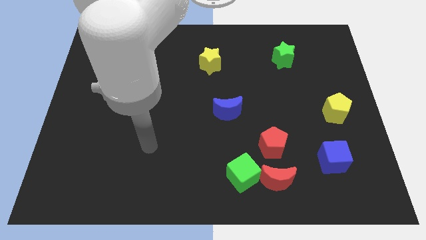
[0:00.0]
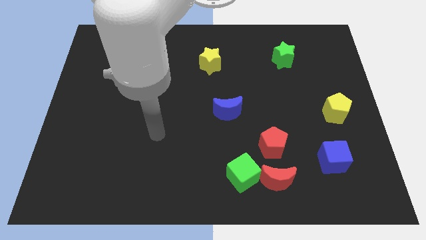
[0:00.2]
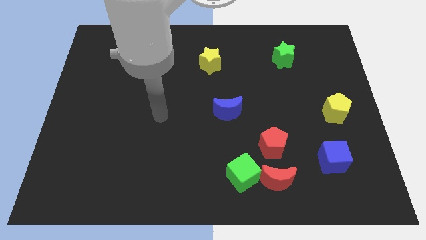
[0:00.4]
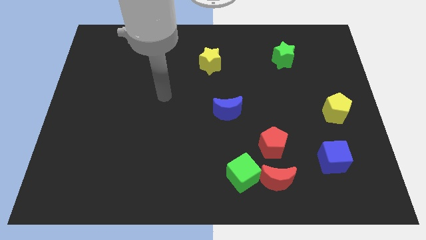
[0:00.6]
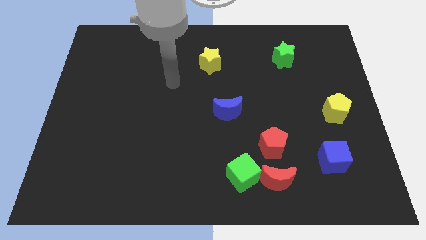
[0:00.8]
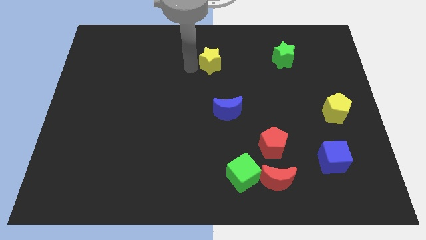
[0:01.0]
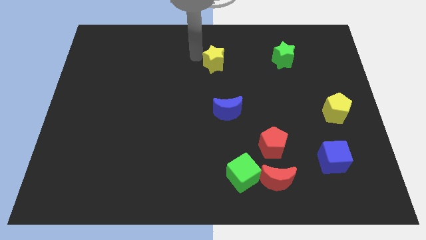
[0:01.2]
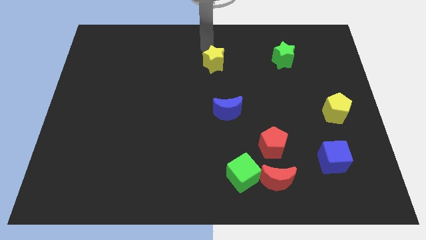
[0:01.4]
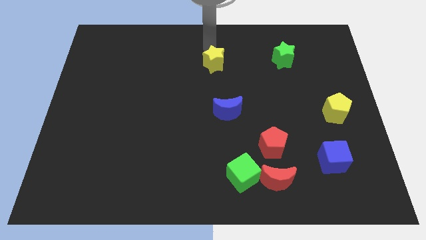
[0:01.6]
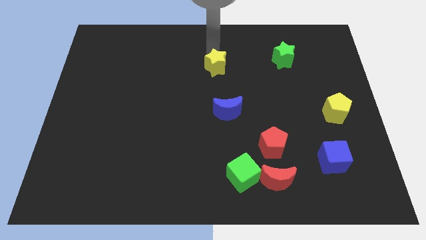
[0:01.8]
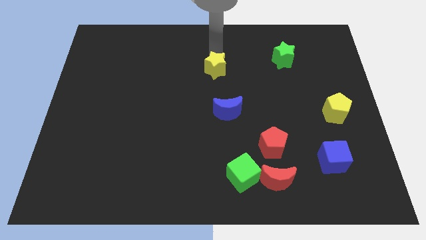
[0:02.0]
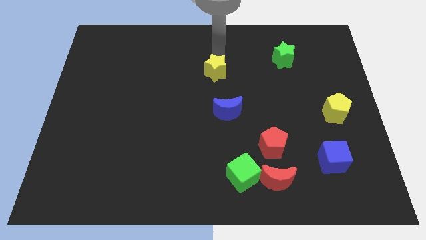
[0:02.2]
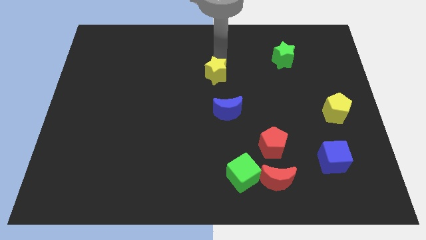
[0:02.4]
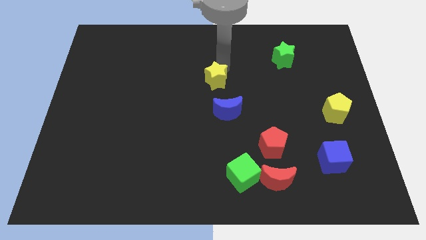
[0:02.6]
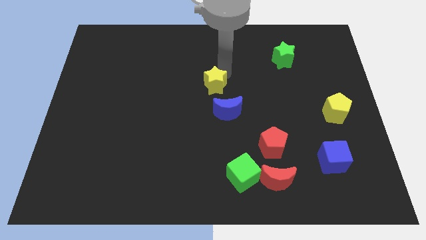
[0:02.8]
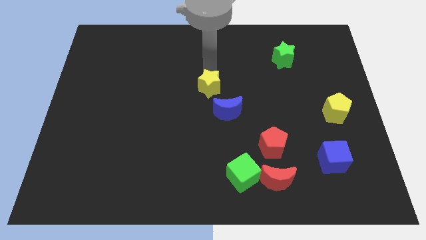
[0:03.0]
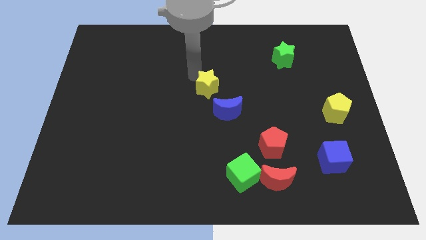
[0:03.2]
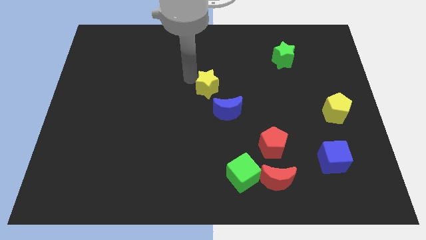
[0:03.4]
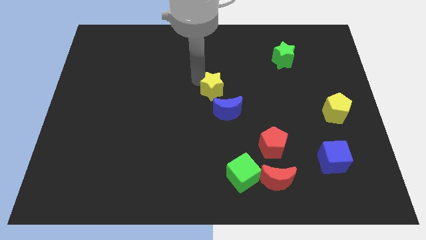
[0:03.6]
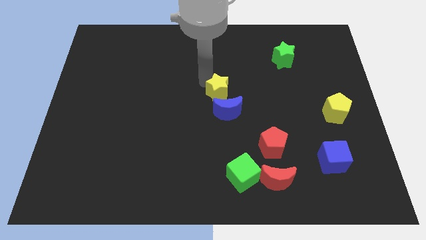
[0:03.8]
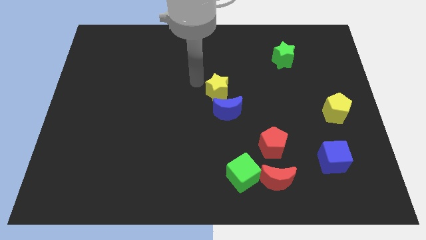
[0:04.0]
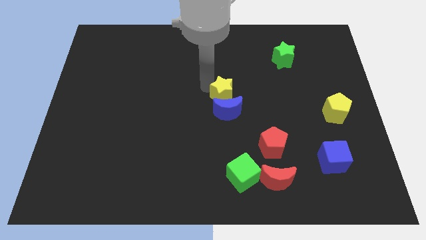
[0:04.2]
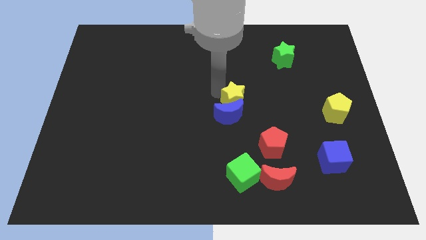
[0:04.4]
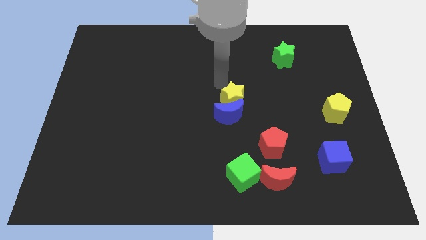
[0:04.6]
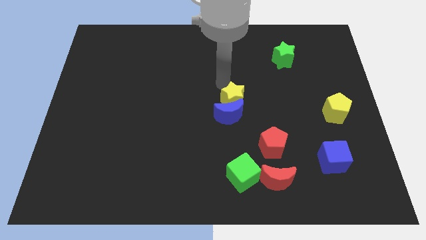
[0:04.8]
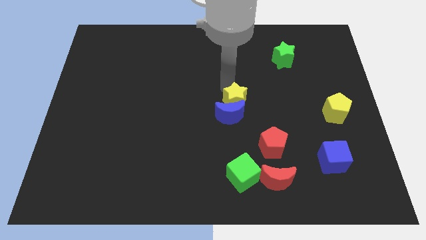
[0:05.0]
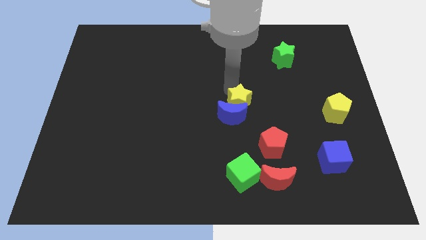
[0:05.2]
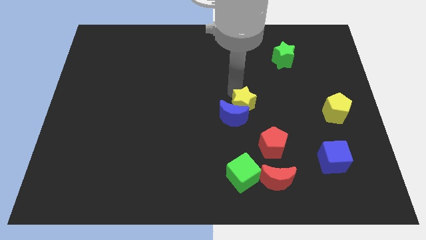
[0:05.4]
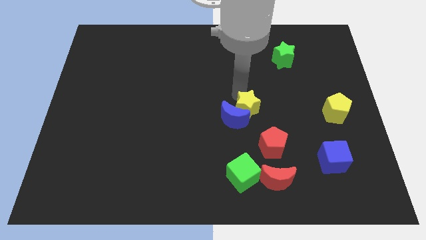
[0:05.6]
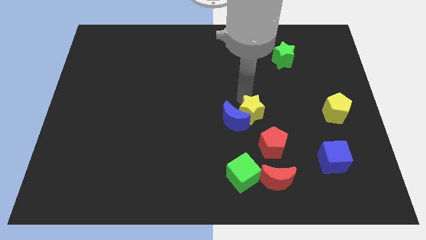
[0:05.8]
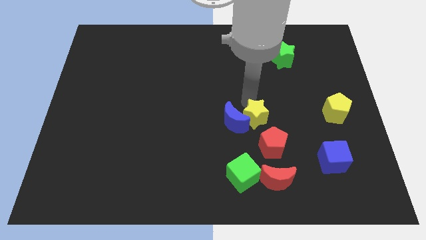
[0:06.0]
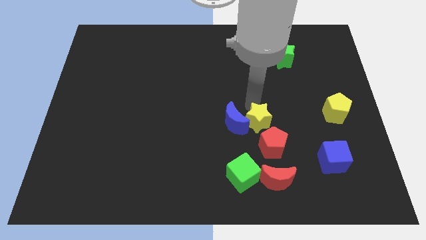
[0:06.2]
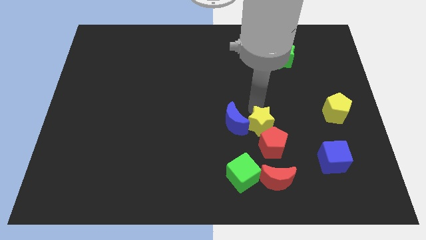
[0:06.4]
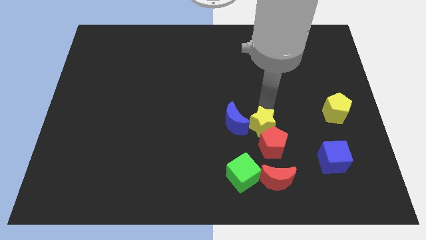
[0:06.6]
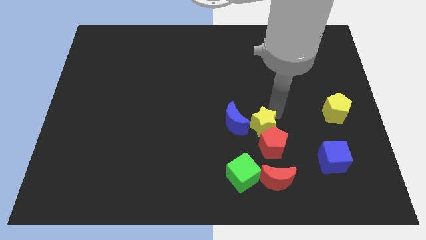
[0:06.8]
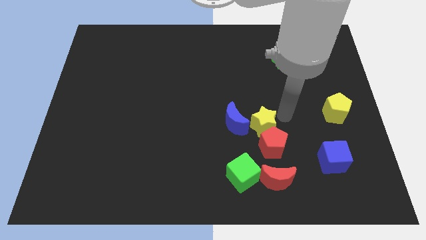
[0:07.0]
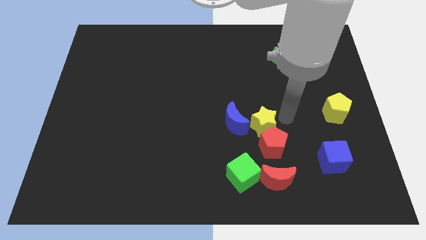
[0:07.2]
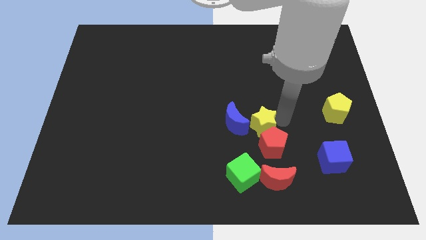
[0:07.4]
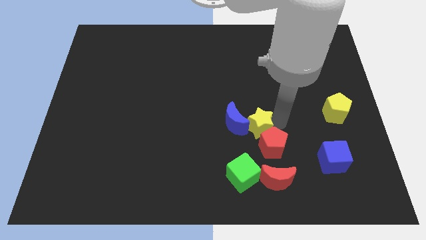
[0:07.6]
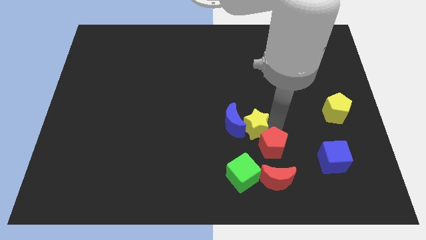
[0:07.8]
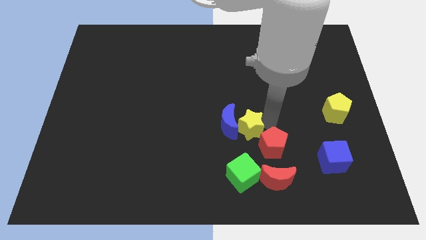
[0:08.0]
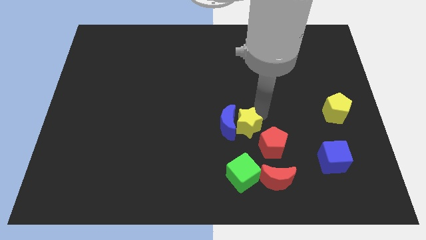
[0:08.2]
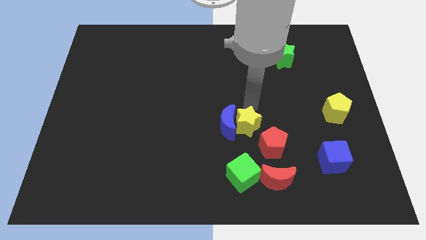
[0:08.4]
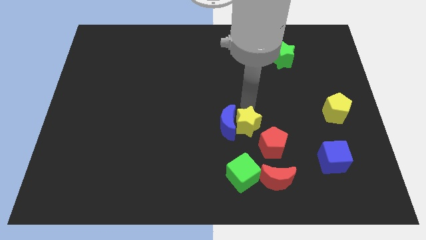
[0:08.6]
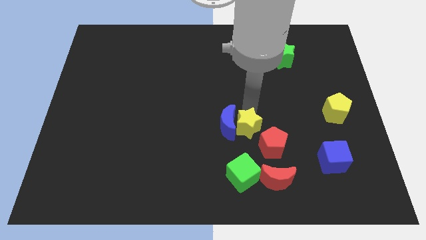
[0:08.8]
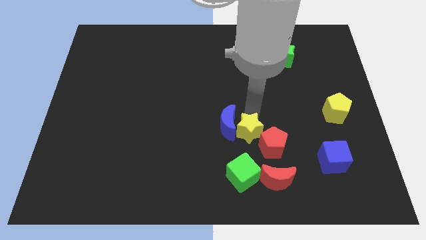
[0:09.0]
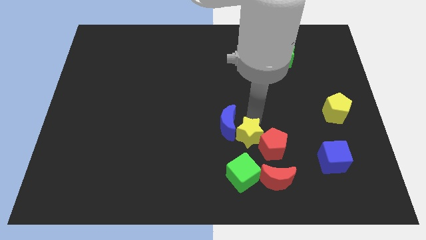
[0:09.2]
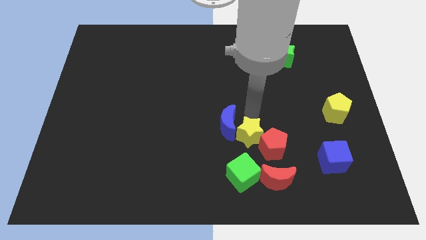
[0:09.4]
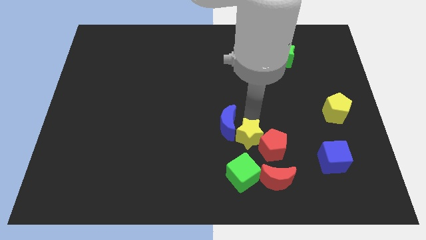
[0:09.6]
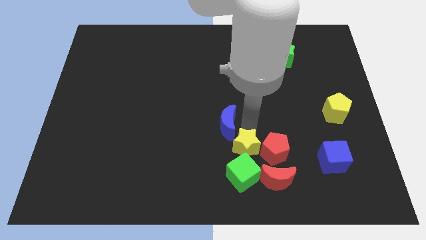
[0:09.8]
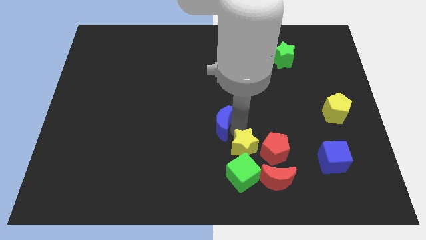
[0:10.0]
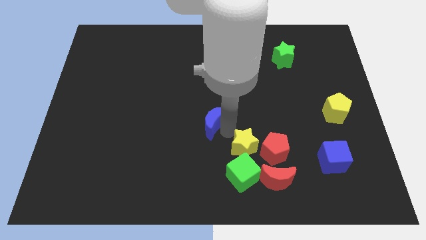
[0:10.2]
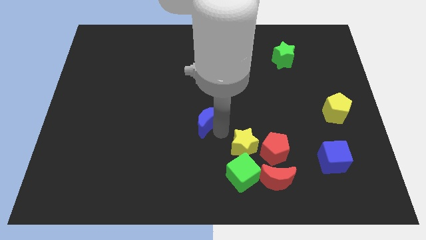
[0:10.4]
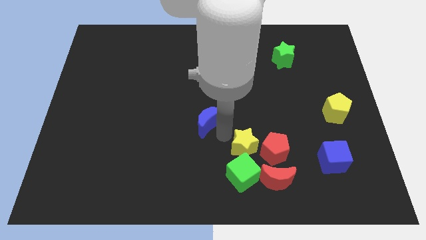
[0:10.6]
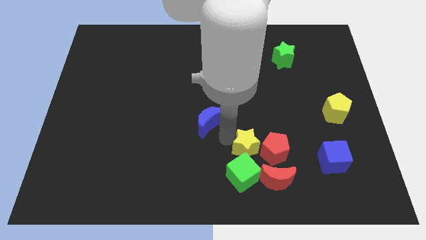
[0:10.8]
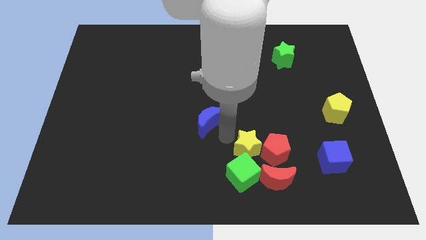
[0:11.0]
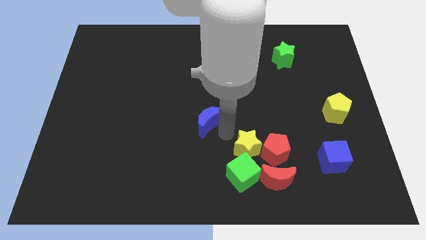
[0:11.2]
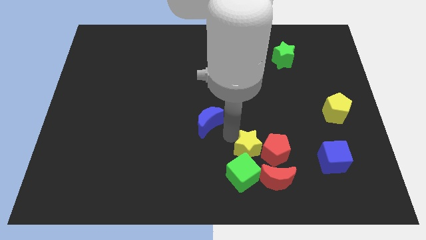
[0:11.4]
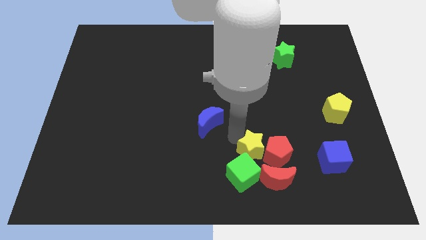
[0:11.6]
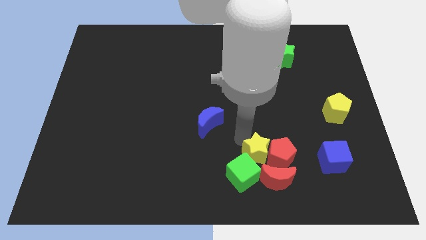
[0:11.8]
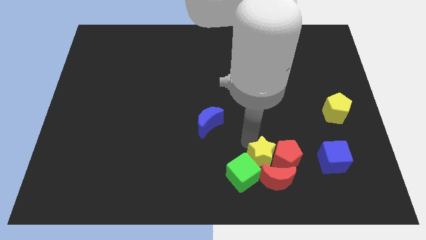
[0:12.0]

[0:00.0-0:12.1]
move the yellow star towards the red moon
